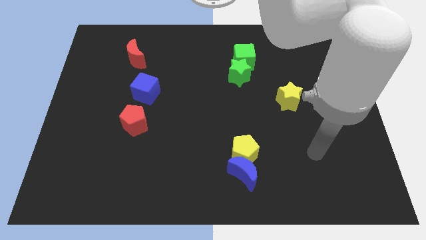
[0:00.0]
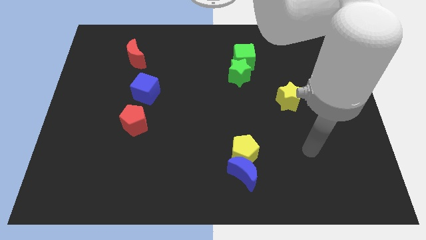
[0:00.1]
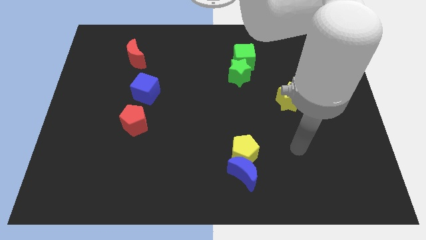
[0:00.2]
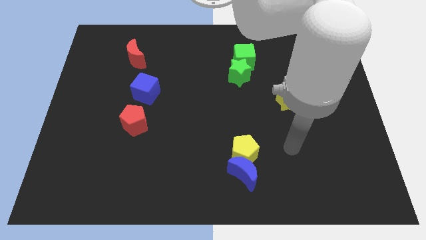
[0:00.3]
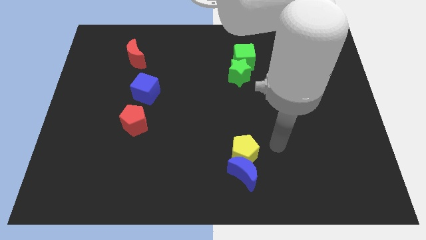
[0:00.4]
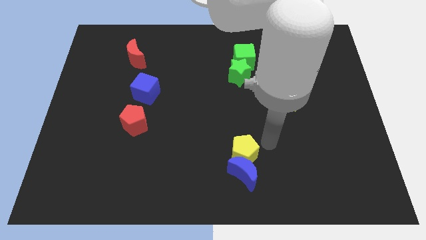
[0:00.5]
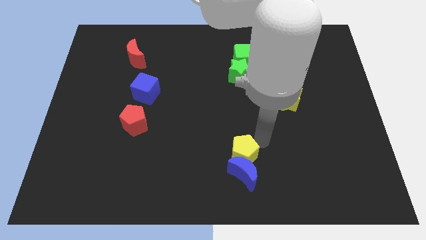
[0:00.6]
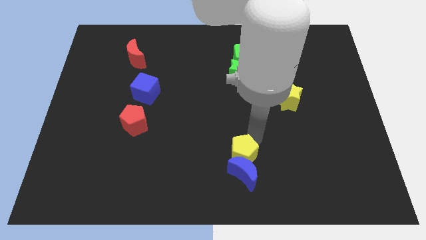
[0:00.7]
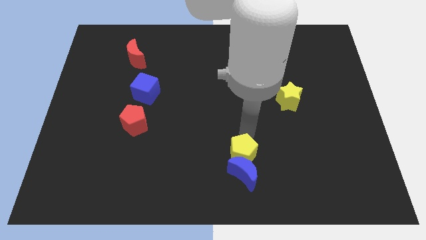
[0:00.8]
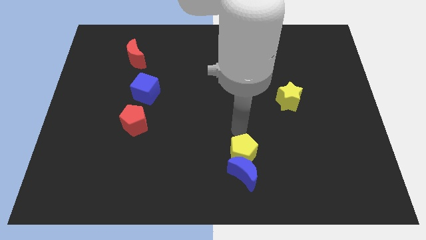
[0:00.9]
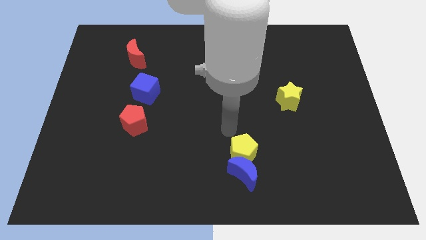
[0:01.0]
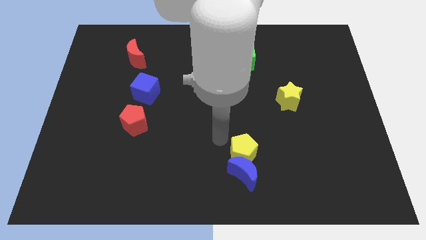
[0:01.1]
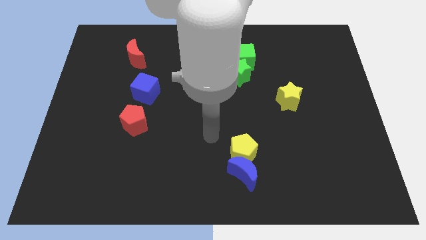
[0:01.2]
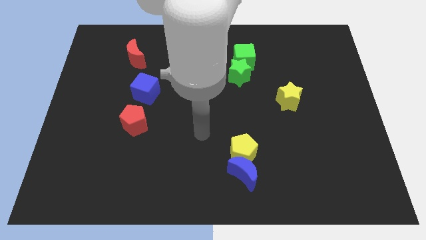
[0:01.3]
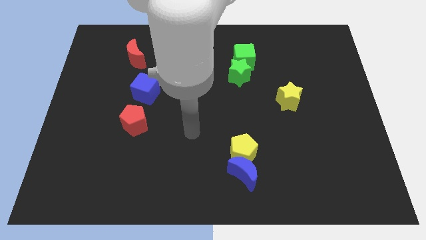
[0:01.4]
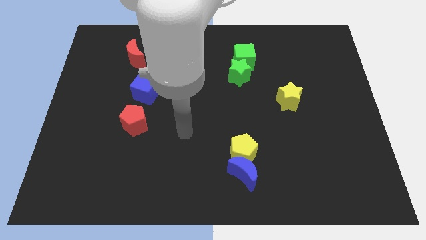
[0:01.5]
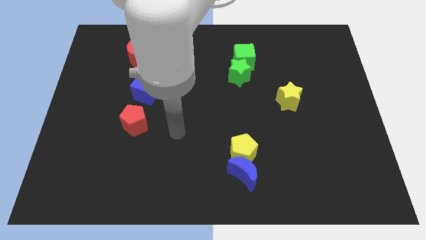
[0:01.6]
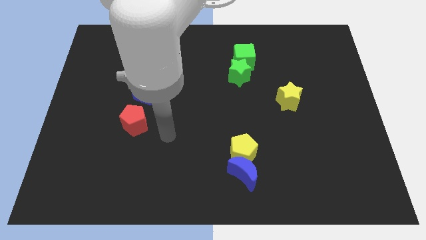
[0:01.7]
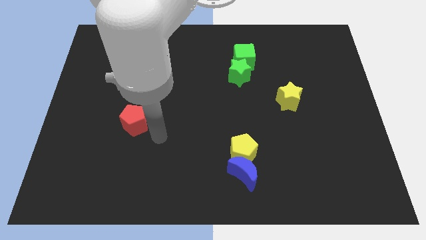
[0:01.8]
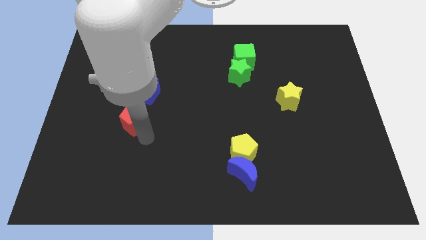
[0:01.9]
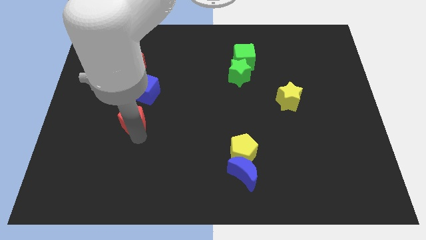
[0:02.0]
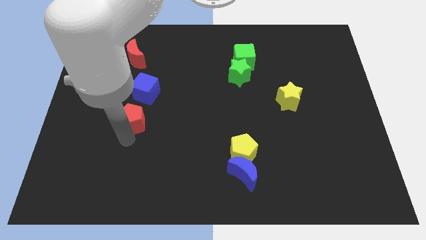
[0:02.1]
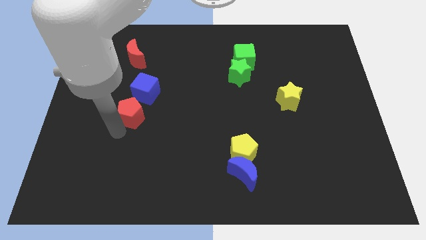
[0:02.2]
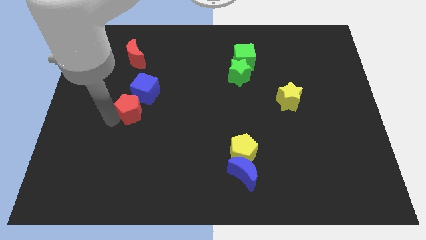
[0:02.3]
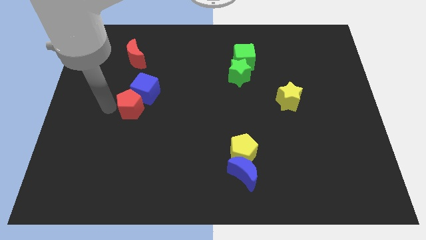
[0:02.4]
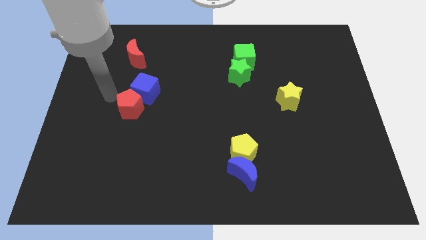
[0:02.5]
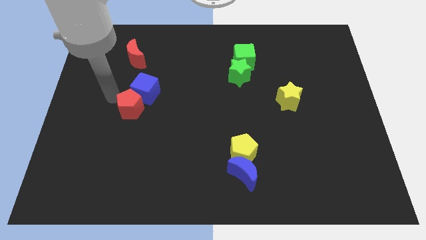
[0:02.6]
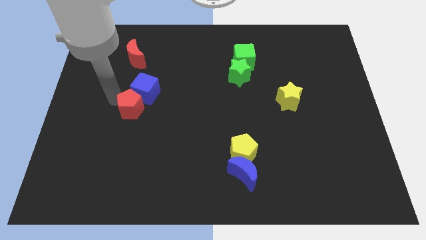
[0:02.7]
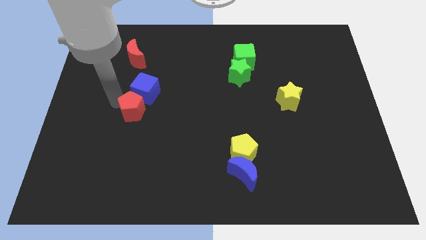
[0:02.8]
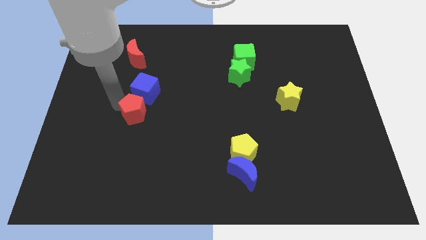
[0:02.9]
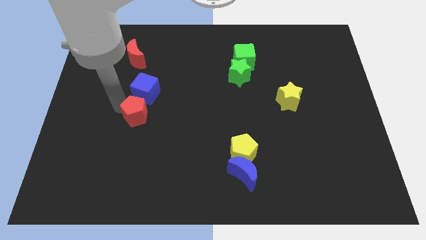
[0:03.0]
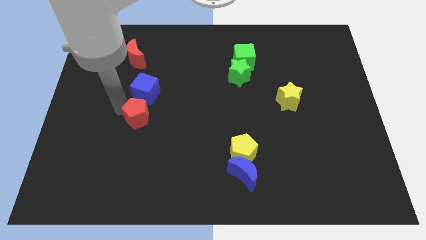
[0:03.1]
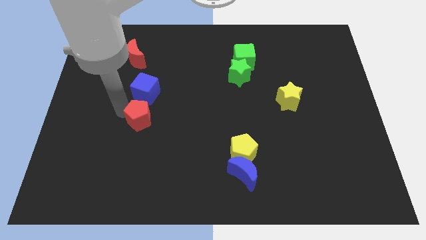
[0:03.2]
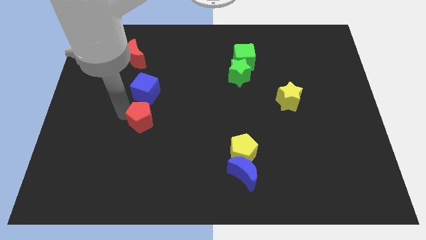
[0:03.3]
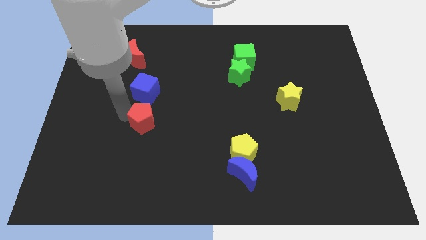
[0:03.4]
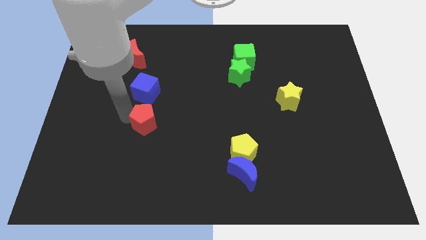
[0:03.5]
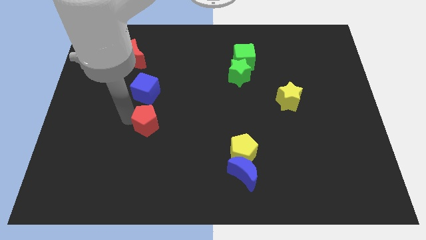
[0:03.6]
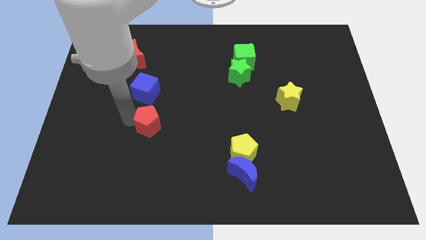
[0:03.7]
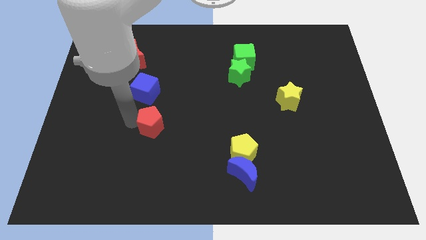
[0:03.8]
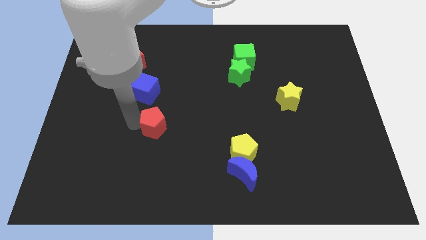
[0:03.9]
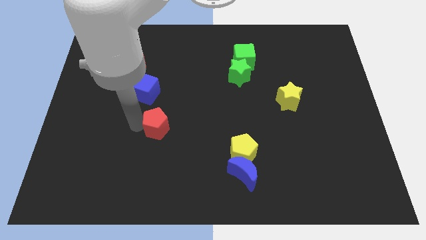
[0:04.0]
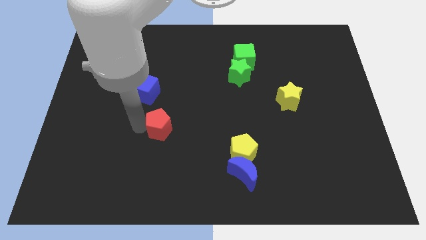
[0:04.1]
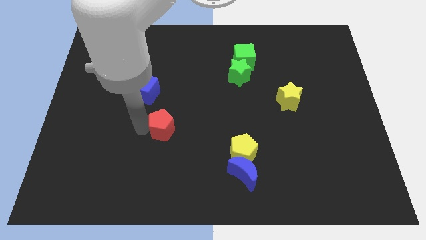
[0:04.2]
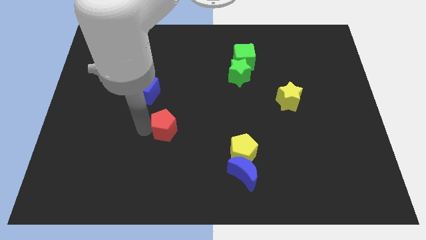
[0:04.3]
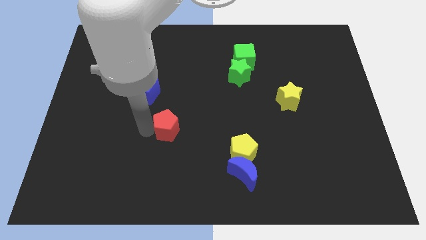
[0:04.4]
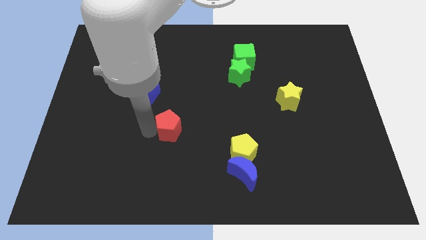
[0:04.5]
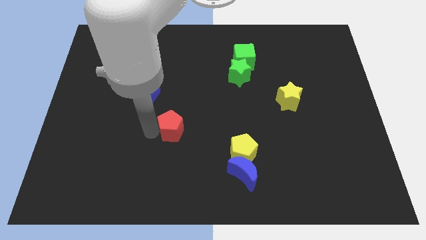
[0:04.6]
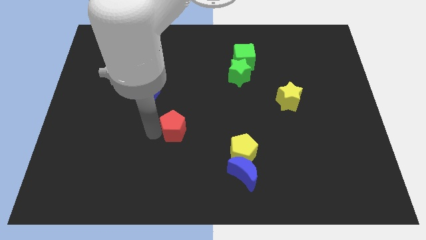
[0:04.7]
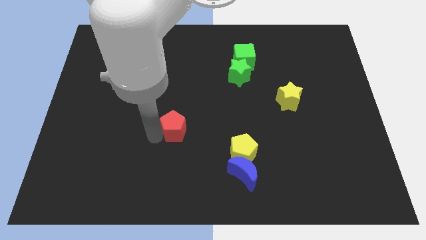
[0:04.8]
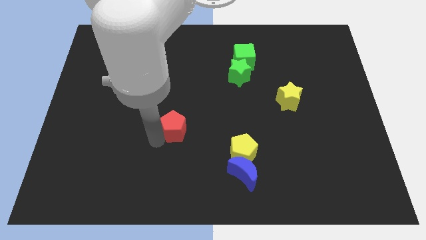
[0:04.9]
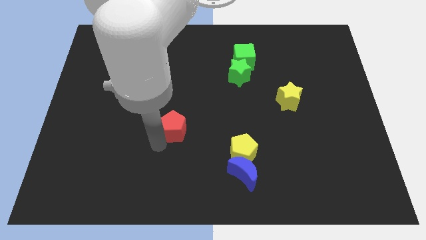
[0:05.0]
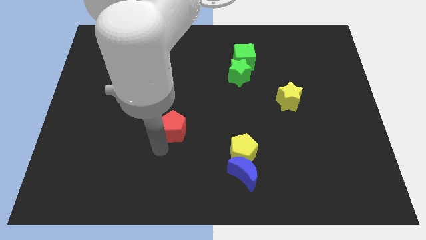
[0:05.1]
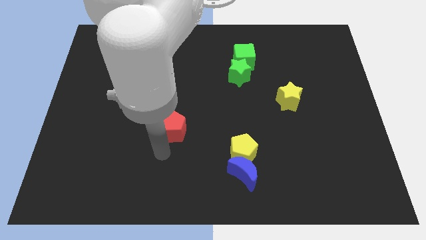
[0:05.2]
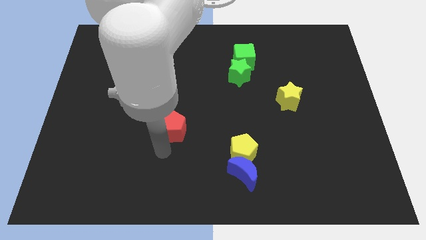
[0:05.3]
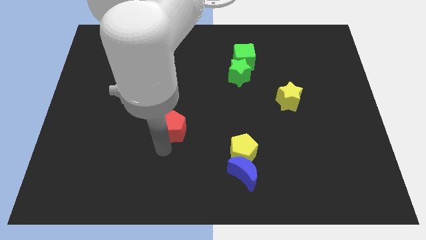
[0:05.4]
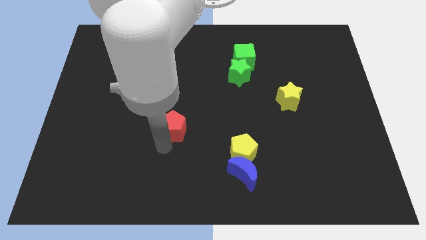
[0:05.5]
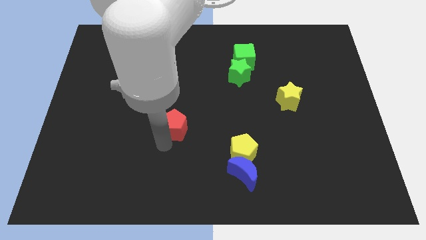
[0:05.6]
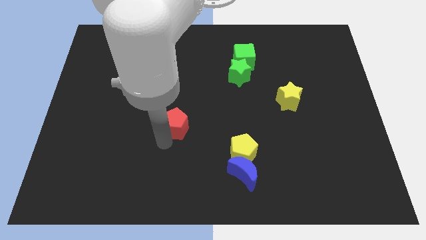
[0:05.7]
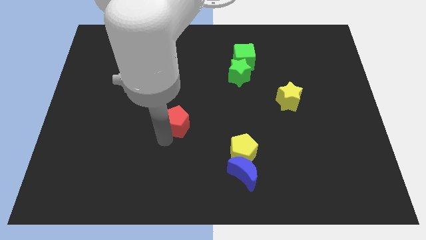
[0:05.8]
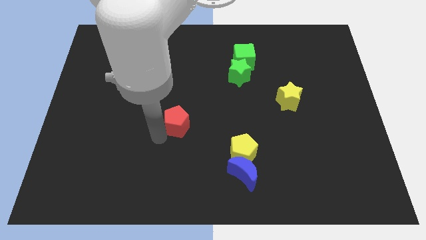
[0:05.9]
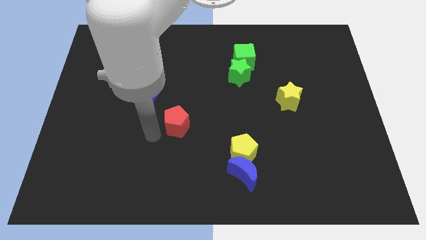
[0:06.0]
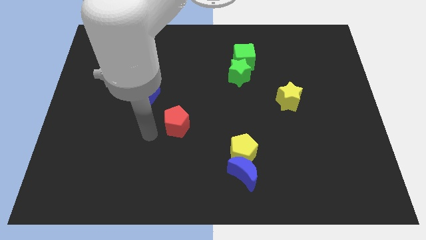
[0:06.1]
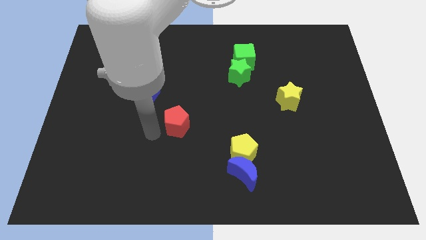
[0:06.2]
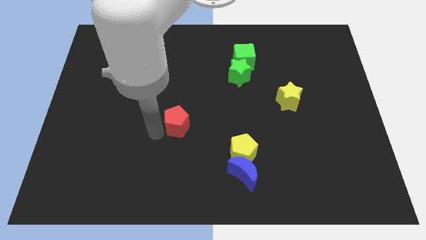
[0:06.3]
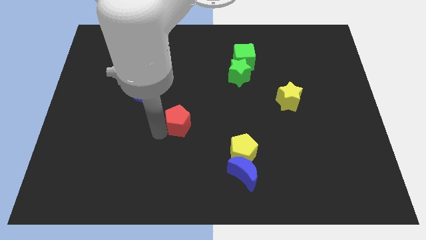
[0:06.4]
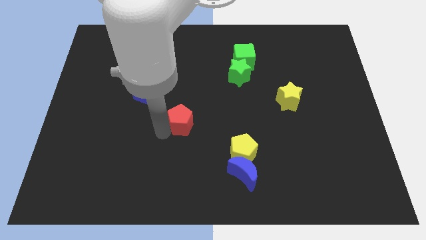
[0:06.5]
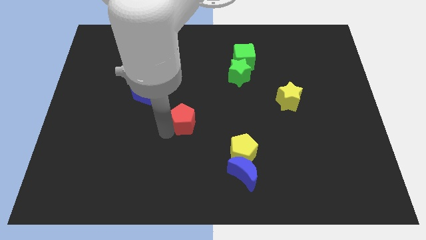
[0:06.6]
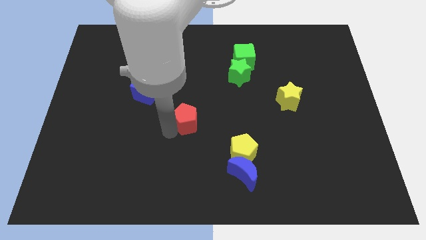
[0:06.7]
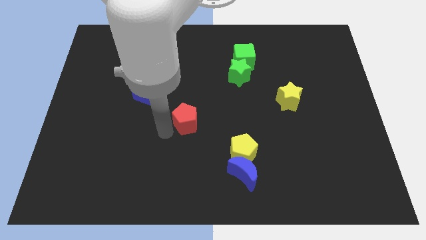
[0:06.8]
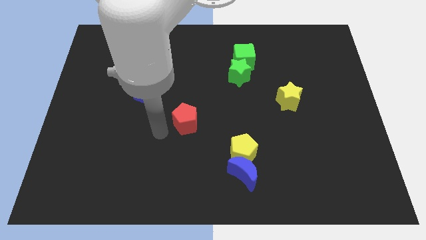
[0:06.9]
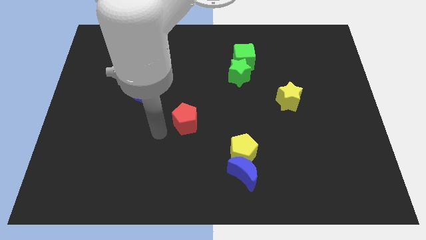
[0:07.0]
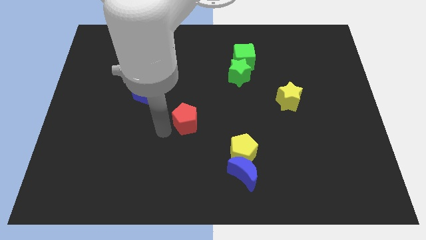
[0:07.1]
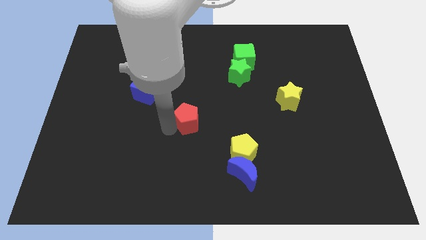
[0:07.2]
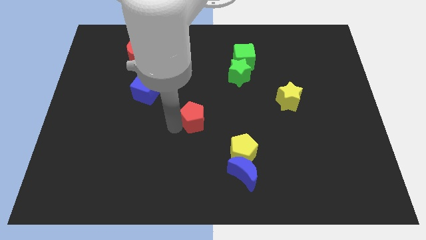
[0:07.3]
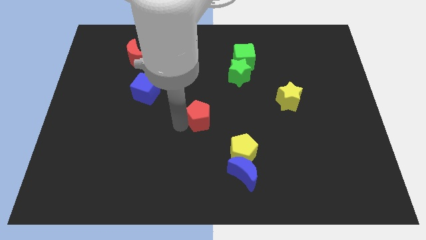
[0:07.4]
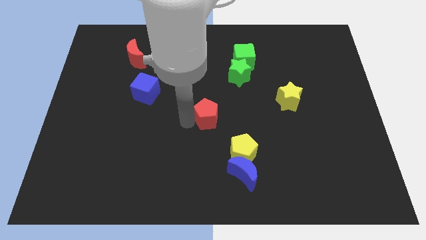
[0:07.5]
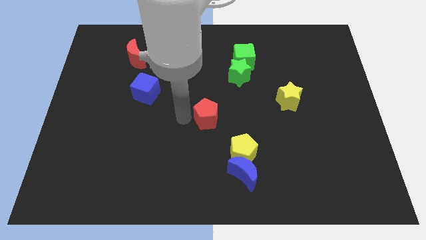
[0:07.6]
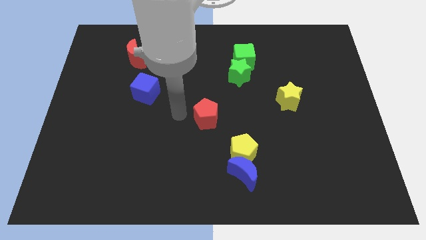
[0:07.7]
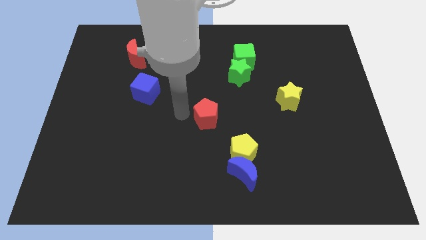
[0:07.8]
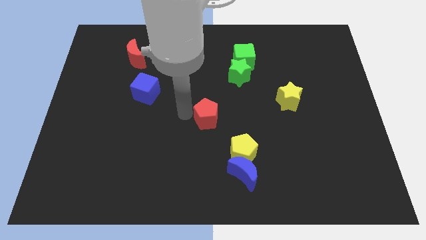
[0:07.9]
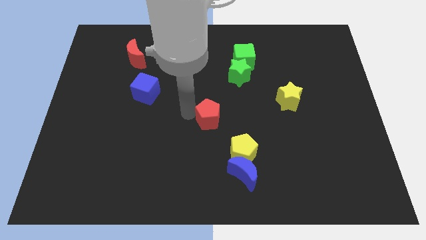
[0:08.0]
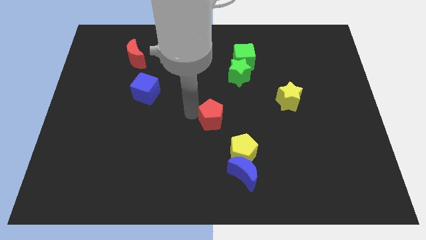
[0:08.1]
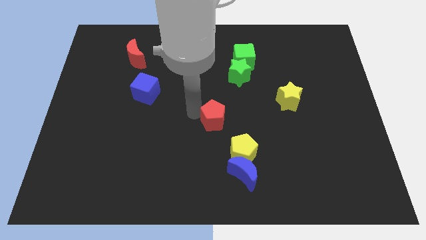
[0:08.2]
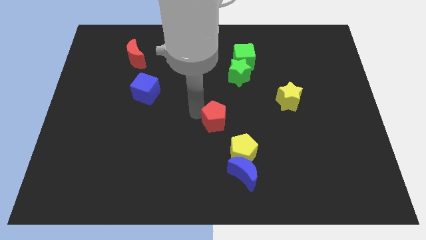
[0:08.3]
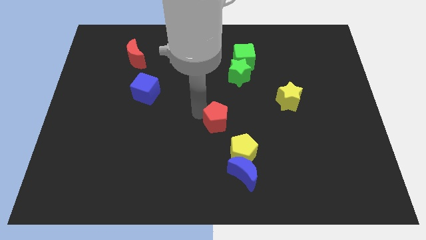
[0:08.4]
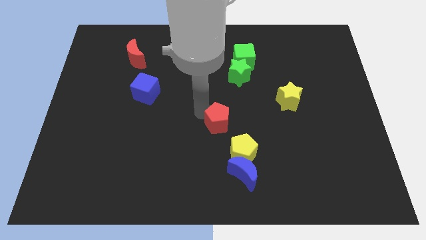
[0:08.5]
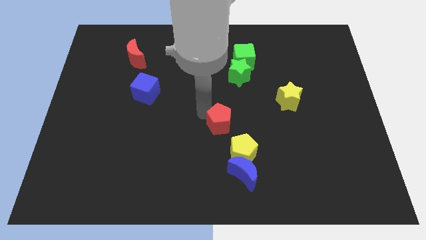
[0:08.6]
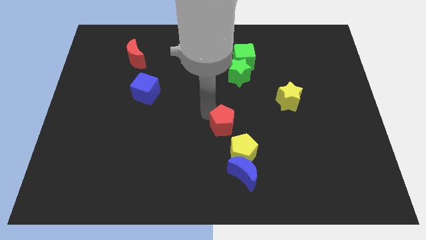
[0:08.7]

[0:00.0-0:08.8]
push the red pentagon to the right
